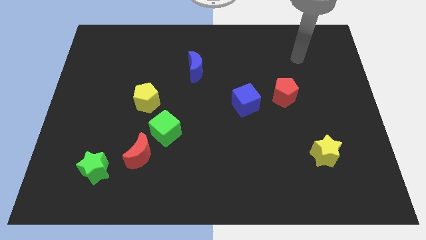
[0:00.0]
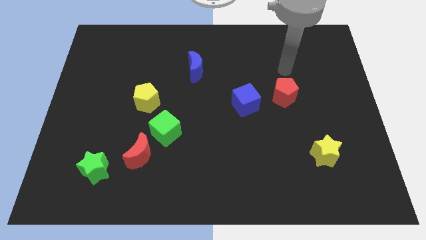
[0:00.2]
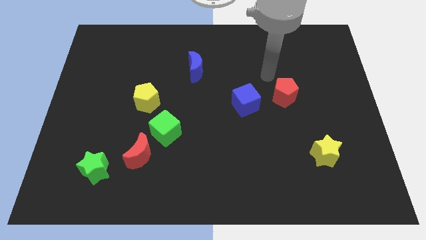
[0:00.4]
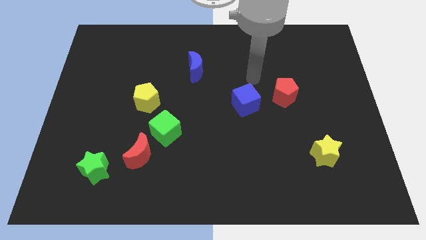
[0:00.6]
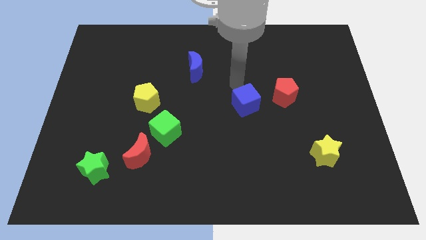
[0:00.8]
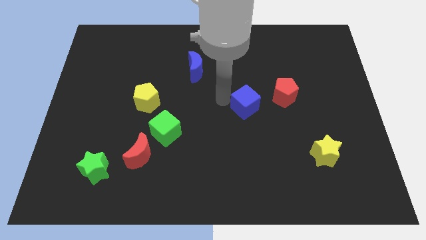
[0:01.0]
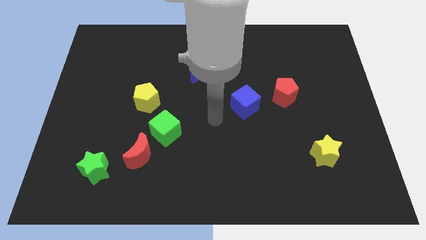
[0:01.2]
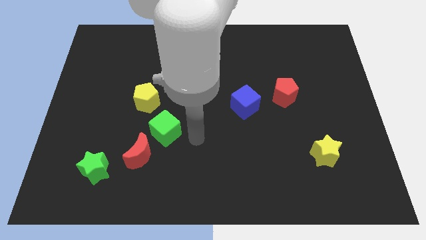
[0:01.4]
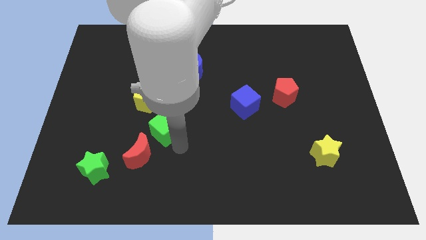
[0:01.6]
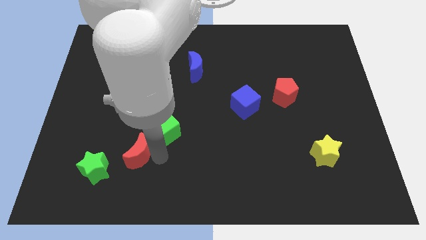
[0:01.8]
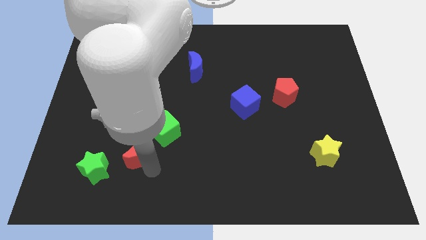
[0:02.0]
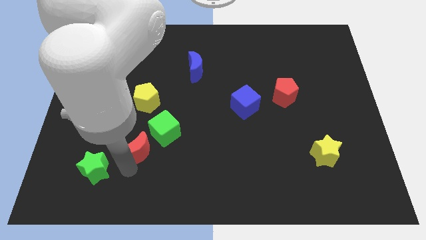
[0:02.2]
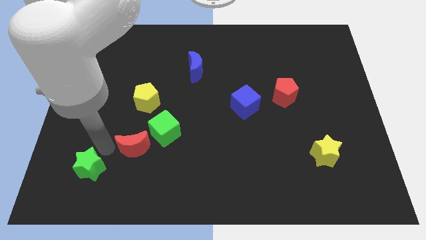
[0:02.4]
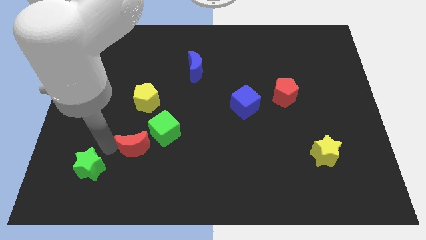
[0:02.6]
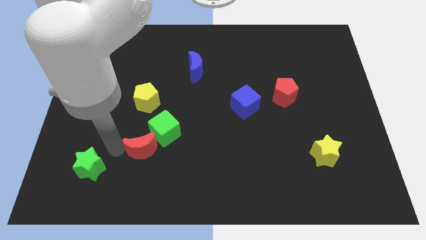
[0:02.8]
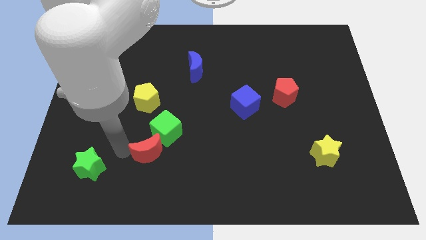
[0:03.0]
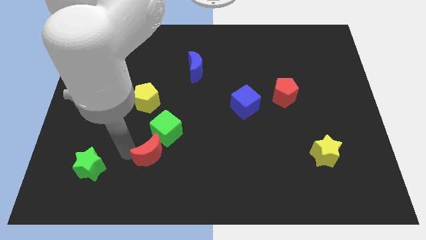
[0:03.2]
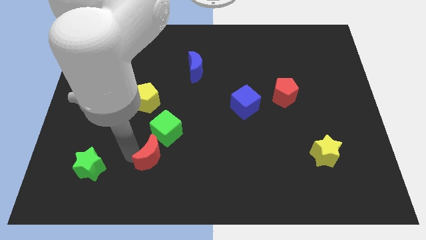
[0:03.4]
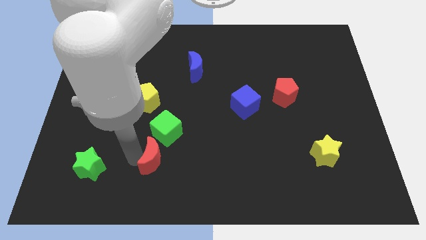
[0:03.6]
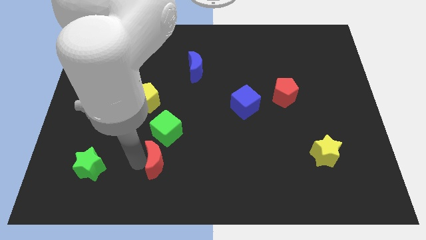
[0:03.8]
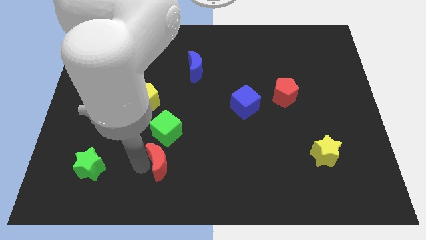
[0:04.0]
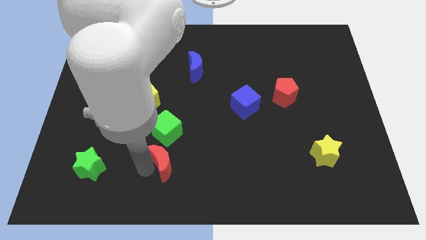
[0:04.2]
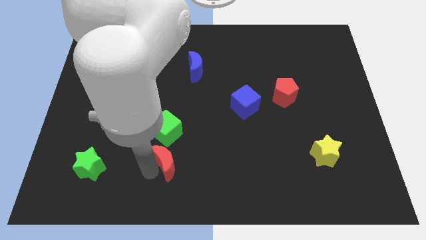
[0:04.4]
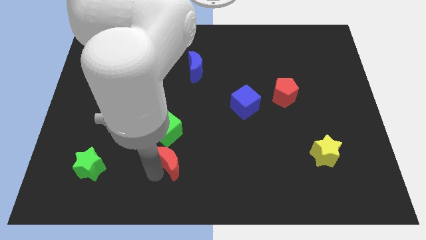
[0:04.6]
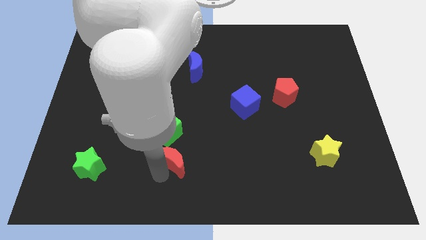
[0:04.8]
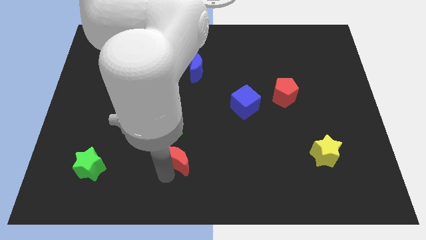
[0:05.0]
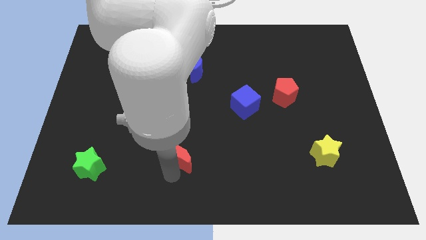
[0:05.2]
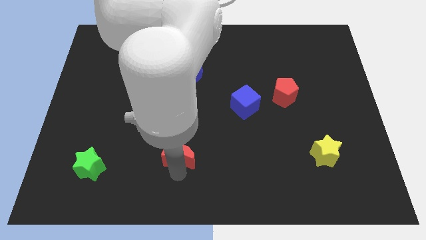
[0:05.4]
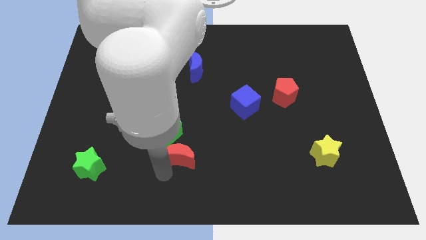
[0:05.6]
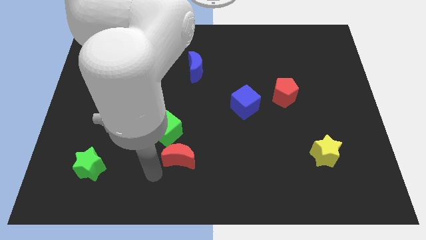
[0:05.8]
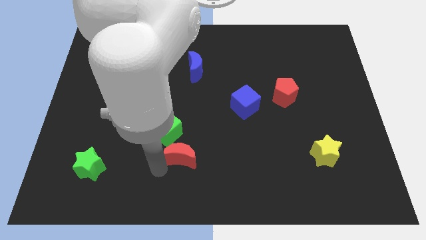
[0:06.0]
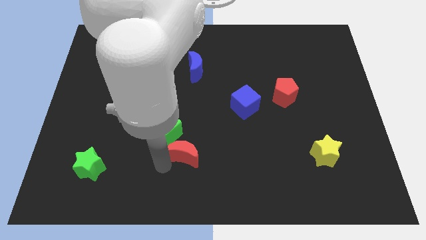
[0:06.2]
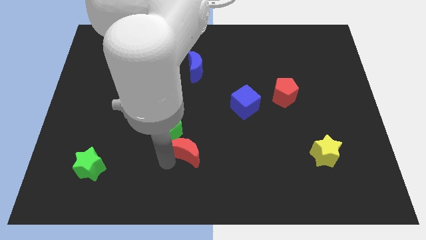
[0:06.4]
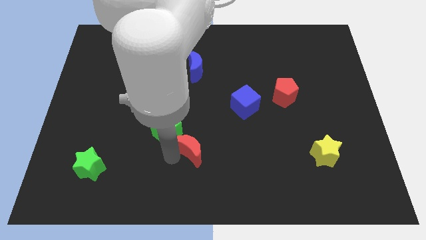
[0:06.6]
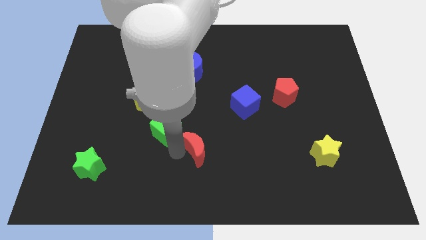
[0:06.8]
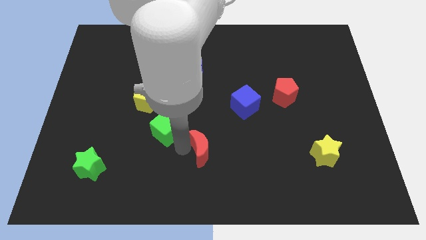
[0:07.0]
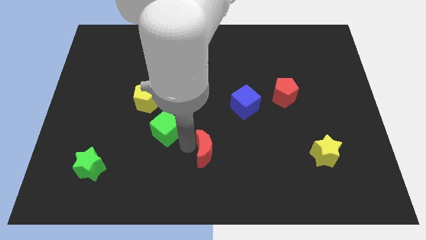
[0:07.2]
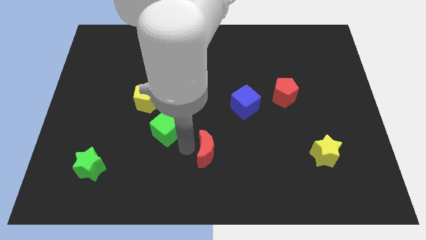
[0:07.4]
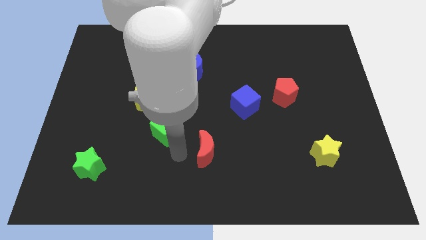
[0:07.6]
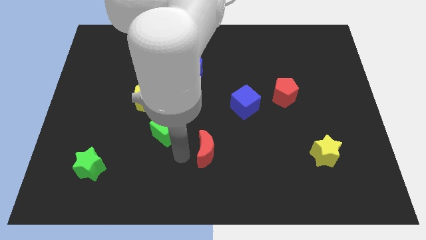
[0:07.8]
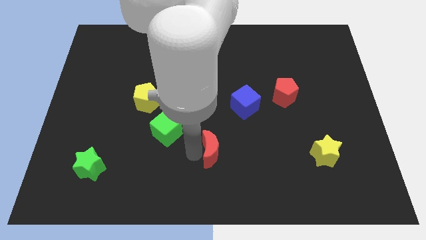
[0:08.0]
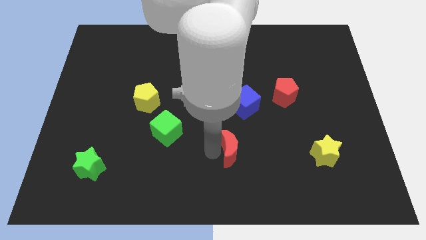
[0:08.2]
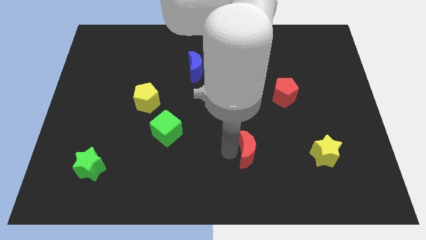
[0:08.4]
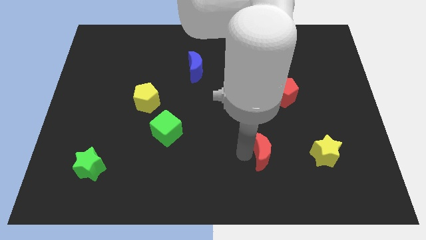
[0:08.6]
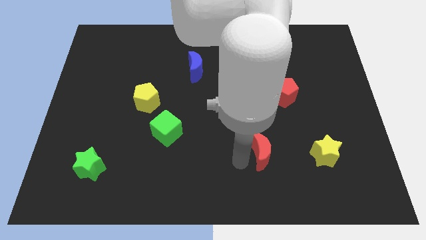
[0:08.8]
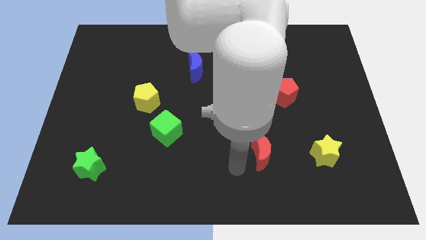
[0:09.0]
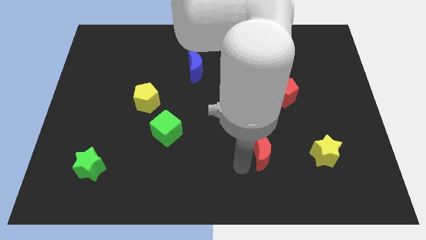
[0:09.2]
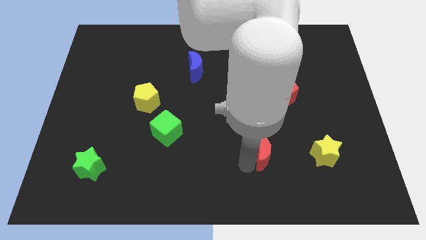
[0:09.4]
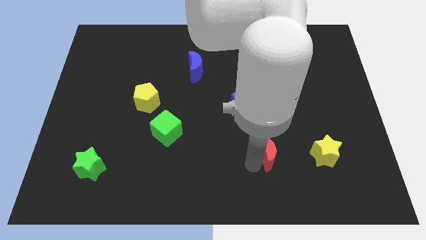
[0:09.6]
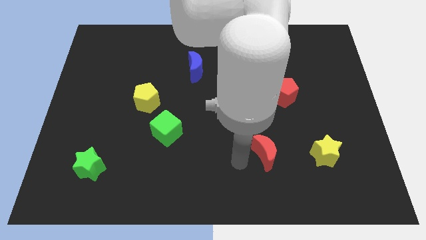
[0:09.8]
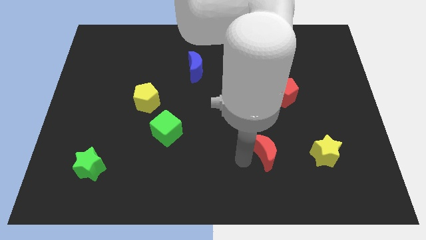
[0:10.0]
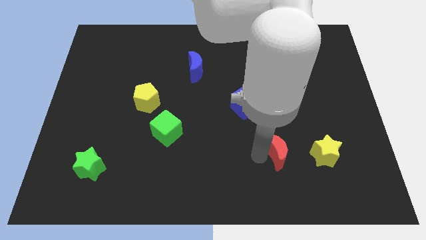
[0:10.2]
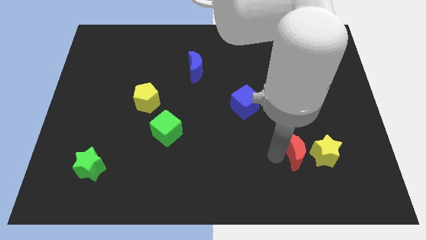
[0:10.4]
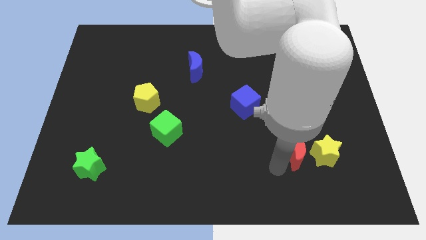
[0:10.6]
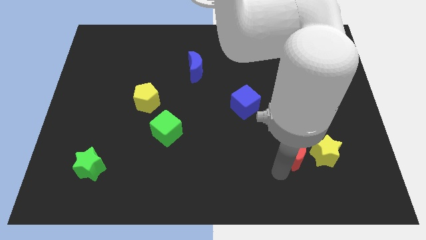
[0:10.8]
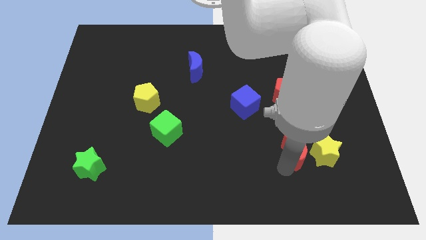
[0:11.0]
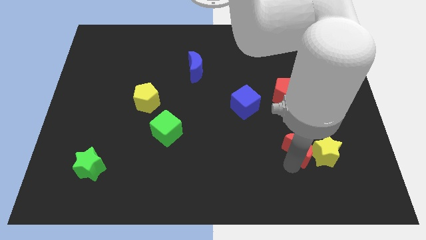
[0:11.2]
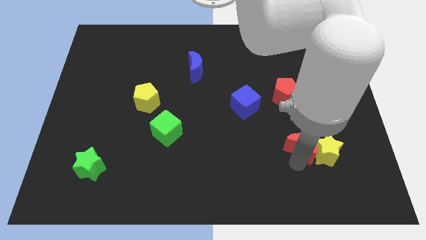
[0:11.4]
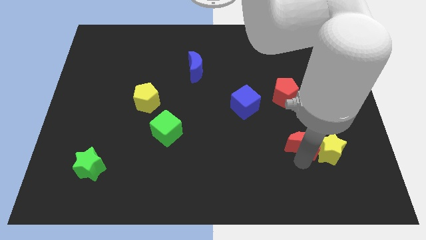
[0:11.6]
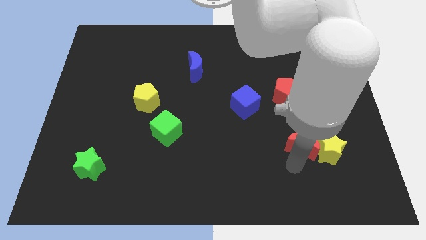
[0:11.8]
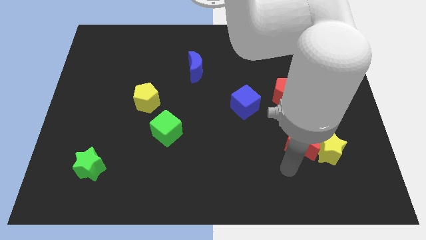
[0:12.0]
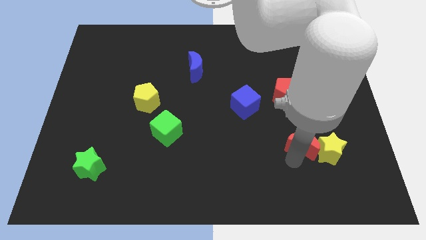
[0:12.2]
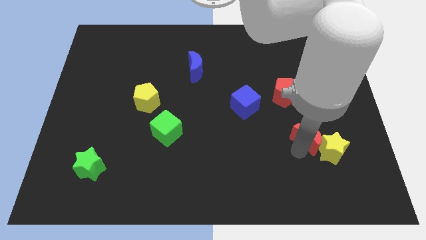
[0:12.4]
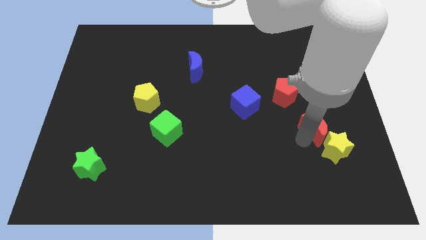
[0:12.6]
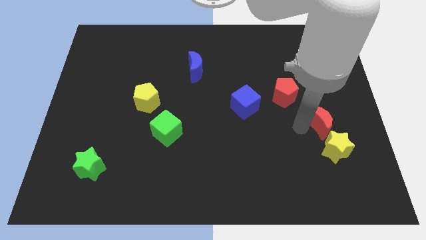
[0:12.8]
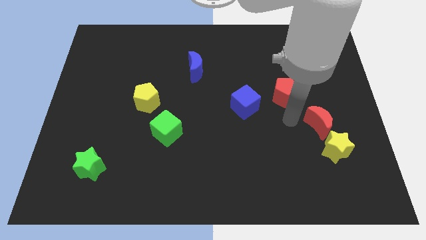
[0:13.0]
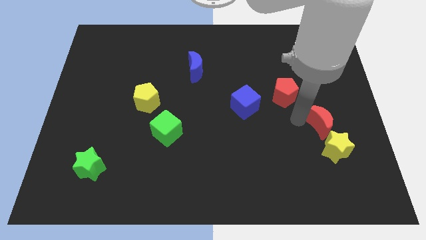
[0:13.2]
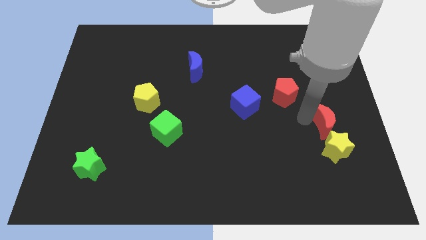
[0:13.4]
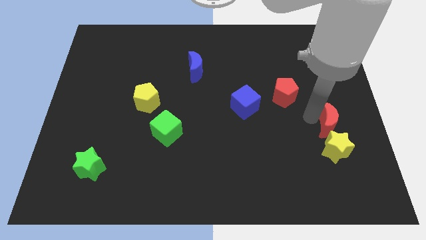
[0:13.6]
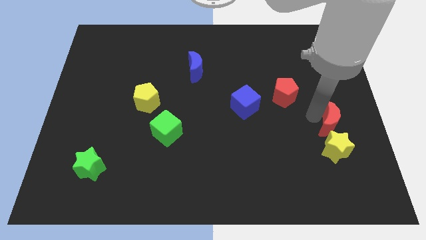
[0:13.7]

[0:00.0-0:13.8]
put the red moon to the top right side of the yellow star
